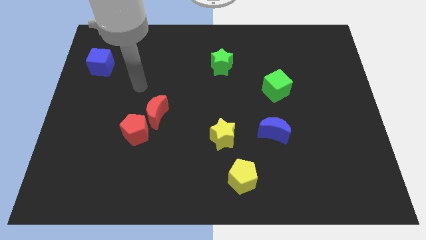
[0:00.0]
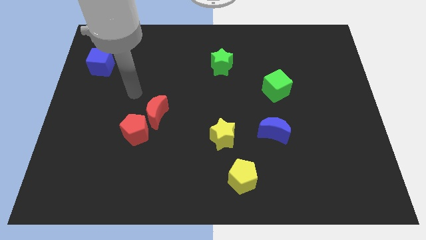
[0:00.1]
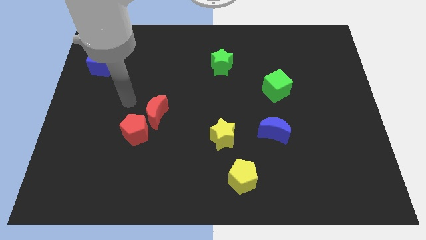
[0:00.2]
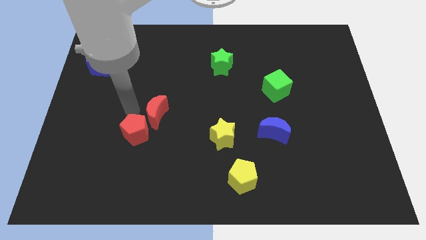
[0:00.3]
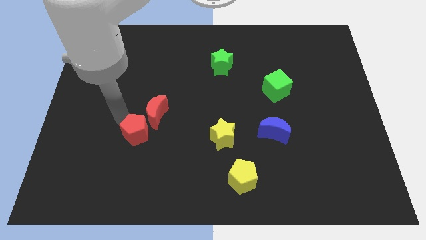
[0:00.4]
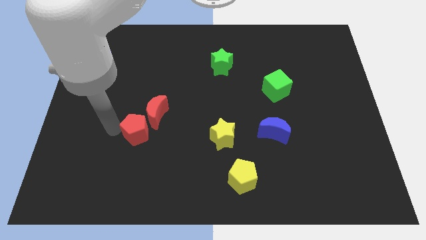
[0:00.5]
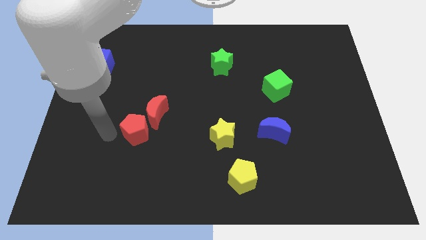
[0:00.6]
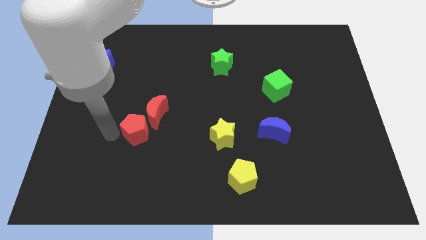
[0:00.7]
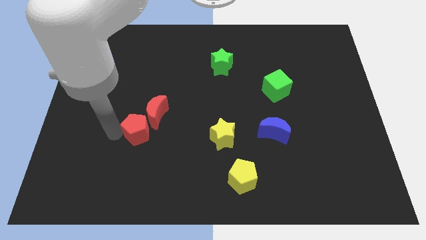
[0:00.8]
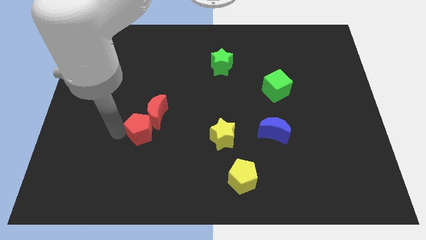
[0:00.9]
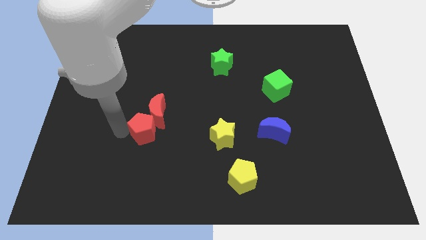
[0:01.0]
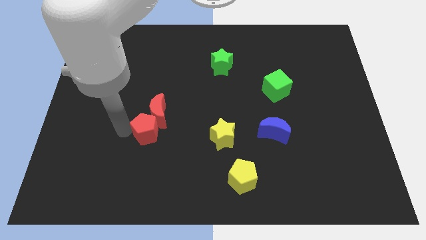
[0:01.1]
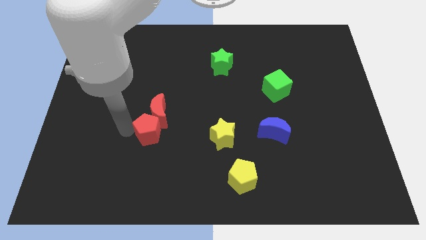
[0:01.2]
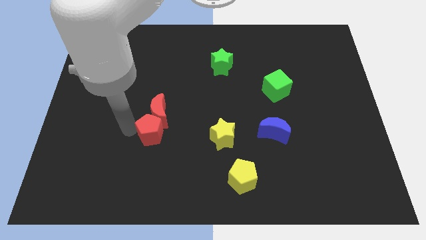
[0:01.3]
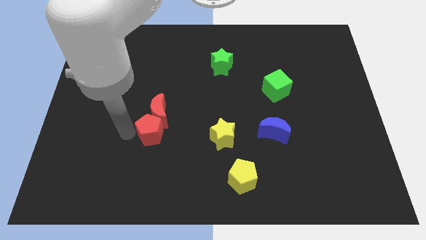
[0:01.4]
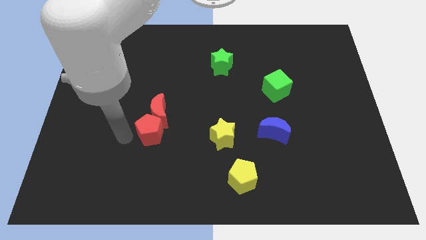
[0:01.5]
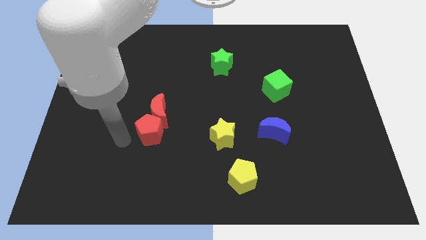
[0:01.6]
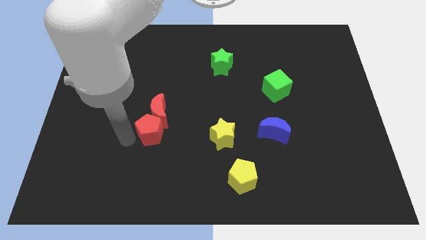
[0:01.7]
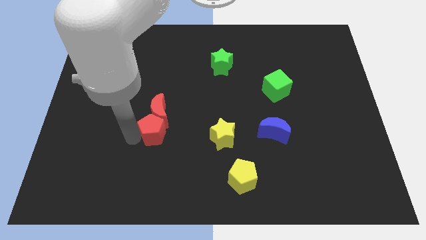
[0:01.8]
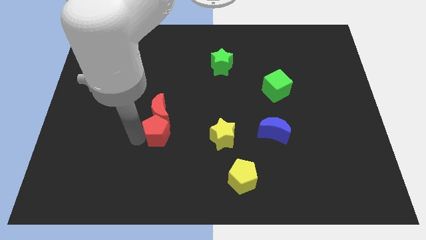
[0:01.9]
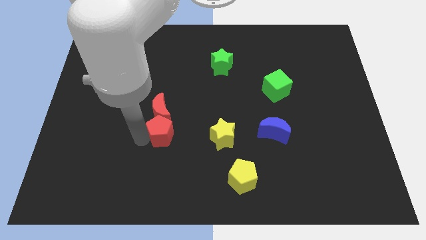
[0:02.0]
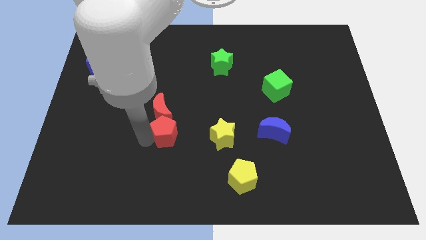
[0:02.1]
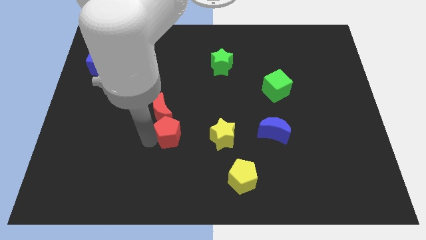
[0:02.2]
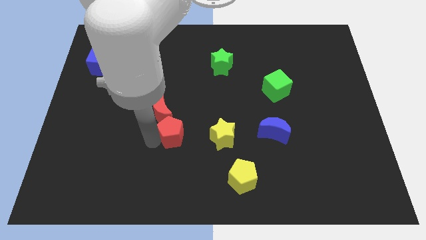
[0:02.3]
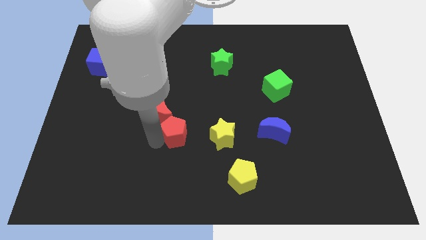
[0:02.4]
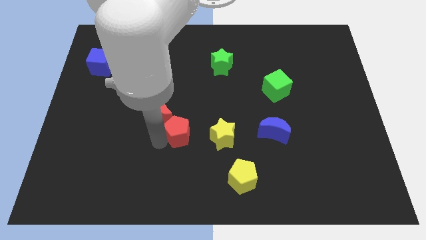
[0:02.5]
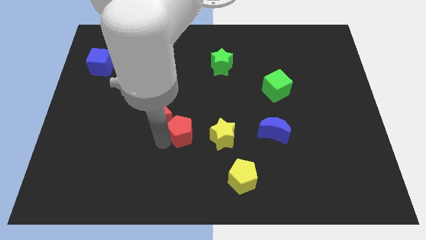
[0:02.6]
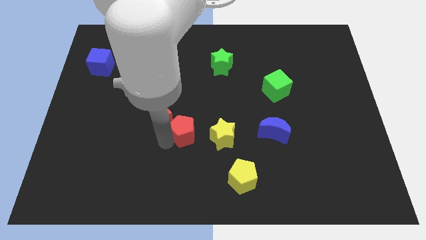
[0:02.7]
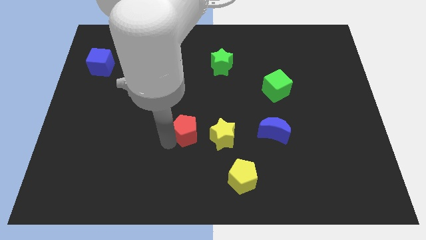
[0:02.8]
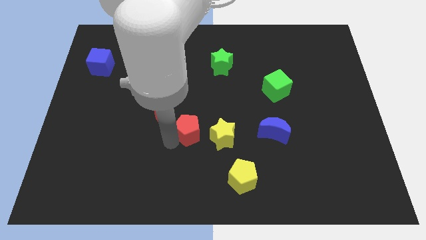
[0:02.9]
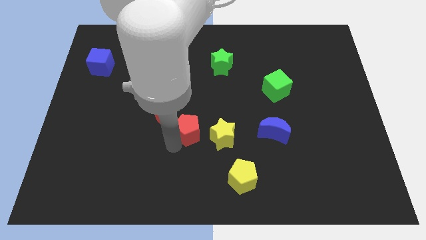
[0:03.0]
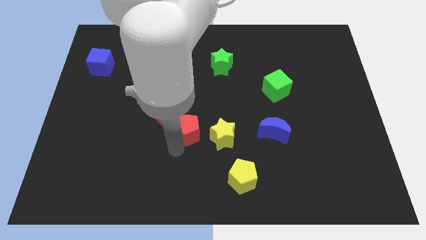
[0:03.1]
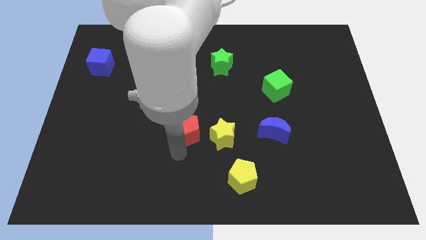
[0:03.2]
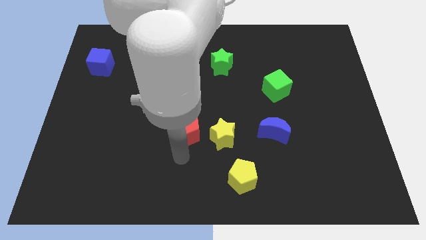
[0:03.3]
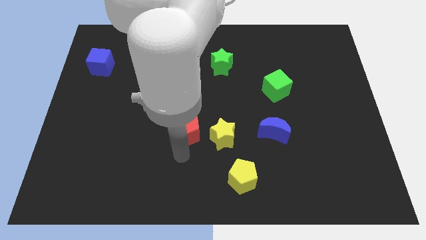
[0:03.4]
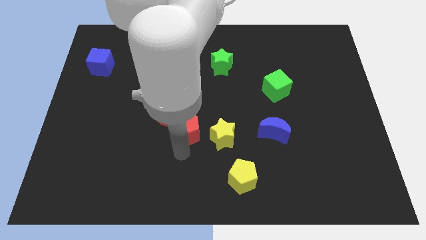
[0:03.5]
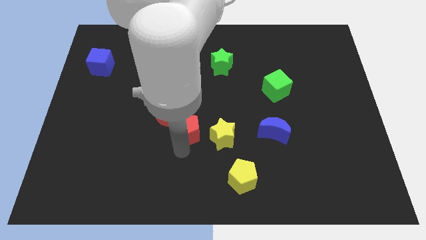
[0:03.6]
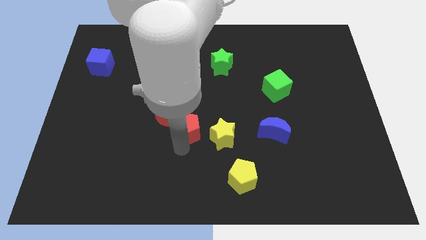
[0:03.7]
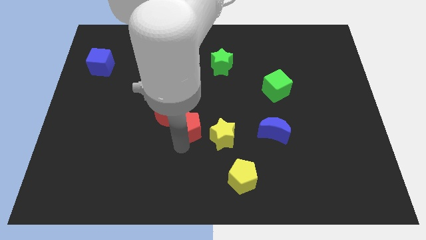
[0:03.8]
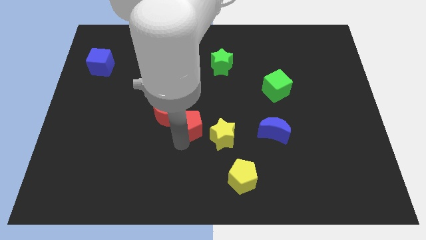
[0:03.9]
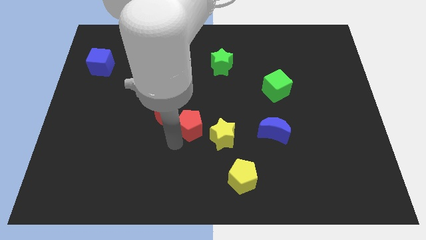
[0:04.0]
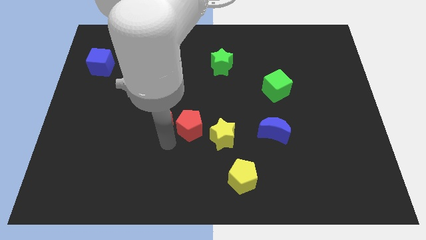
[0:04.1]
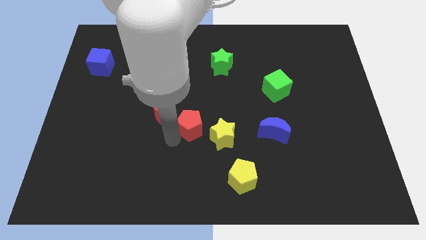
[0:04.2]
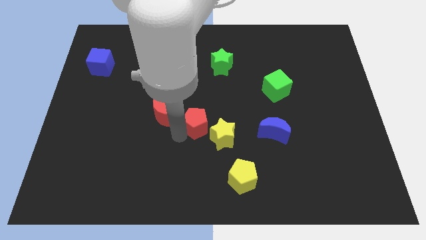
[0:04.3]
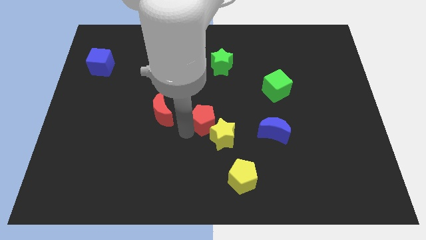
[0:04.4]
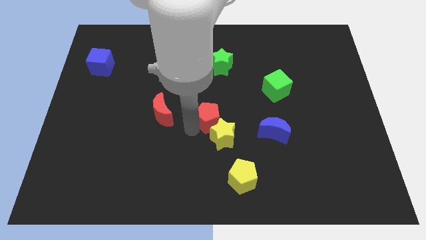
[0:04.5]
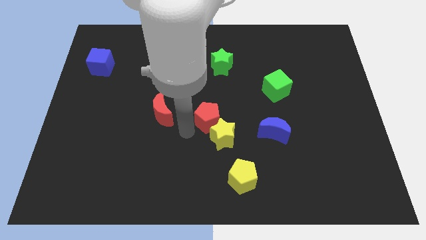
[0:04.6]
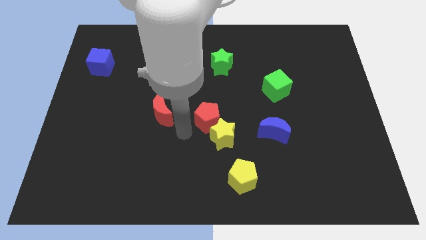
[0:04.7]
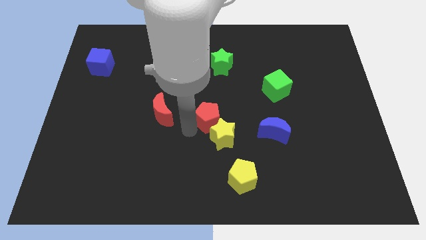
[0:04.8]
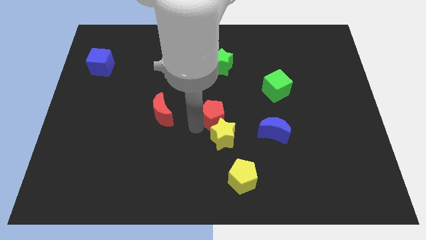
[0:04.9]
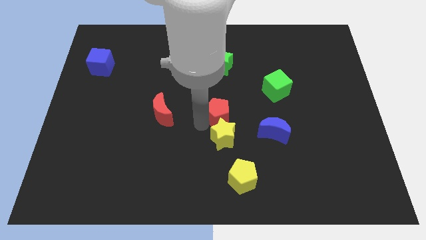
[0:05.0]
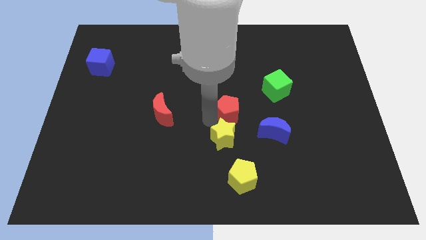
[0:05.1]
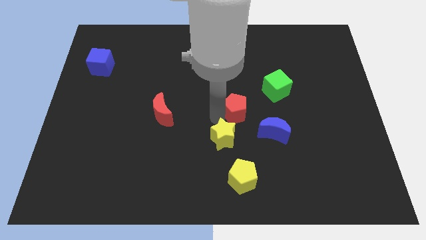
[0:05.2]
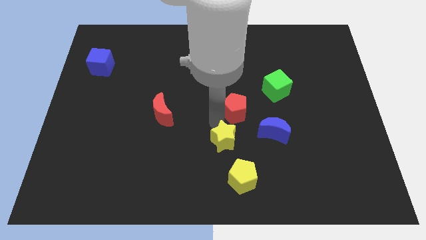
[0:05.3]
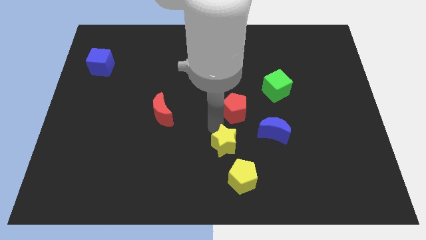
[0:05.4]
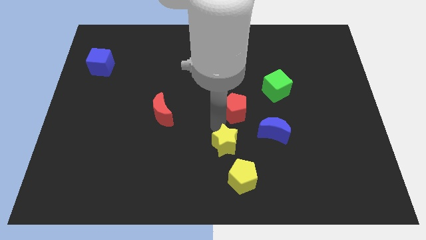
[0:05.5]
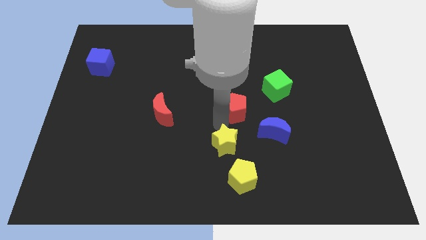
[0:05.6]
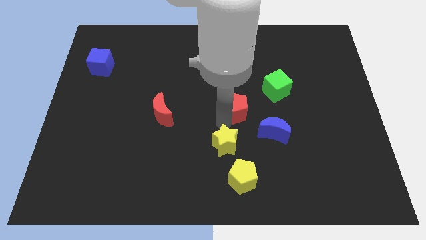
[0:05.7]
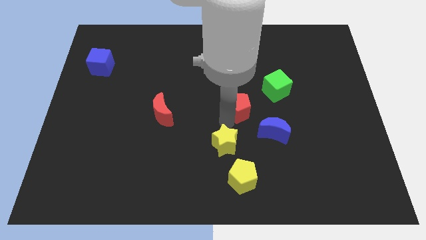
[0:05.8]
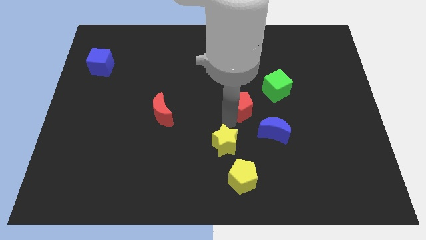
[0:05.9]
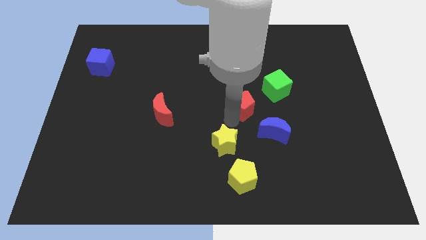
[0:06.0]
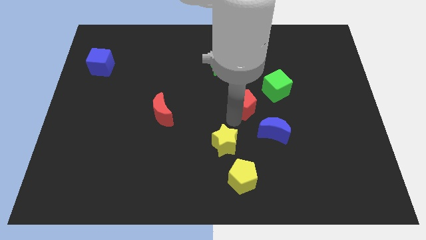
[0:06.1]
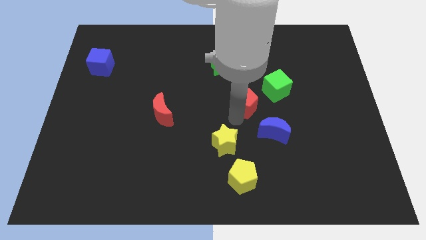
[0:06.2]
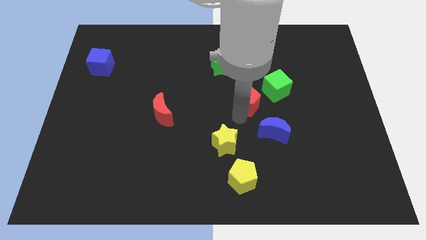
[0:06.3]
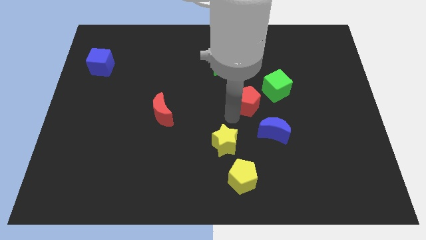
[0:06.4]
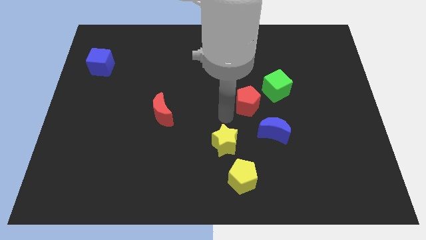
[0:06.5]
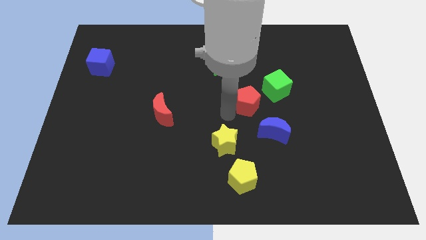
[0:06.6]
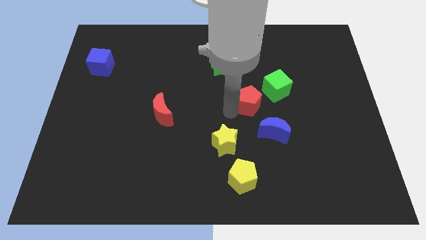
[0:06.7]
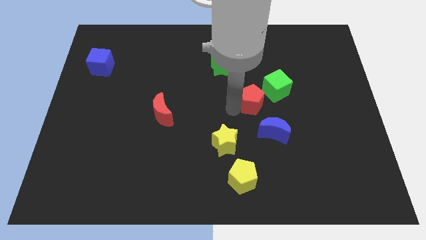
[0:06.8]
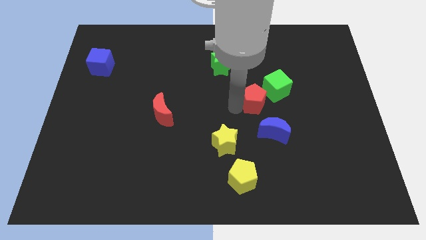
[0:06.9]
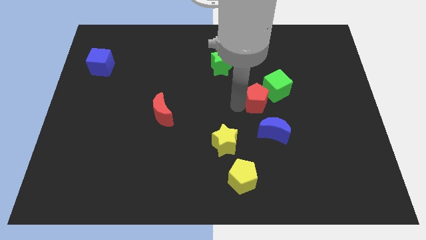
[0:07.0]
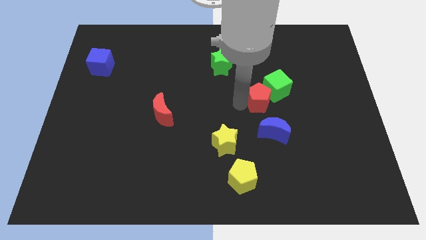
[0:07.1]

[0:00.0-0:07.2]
move the red pentagon to the green cube
